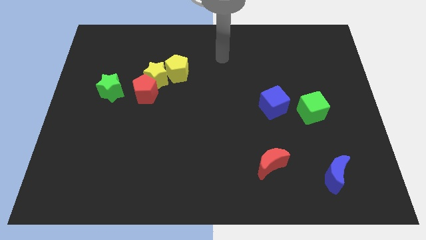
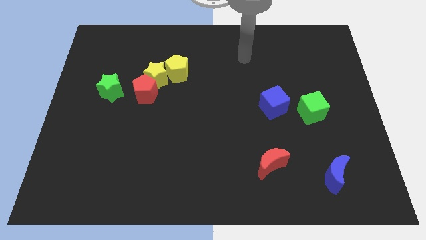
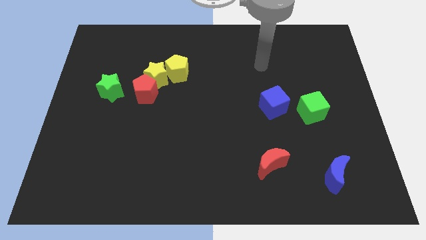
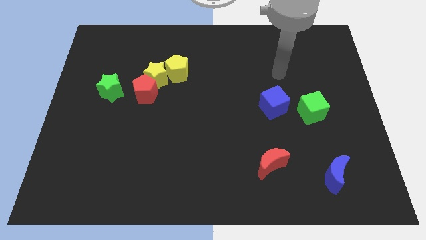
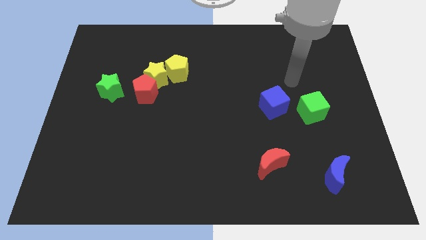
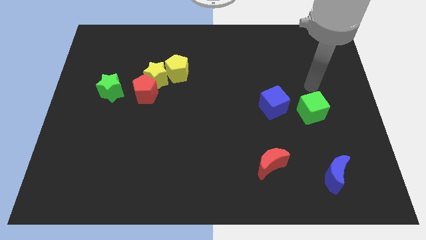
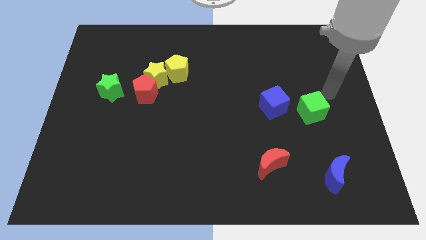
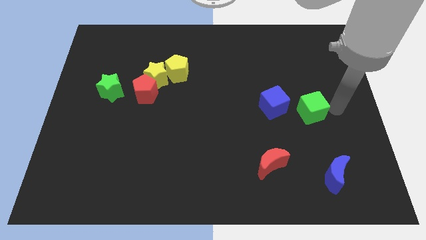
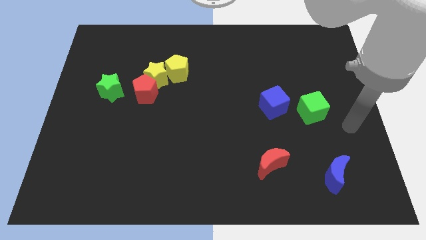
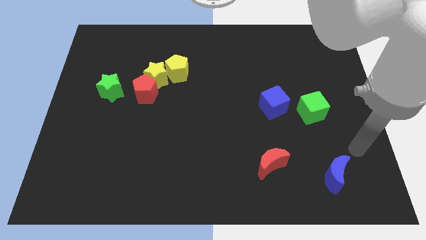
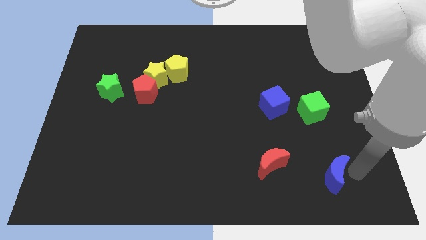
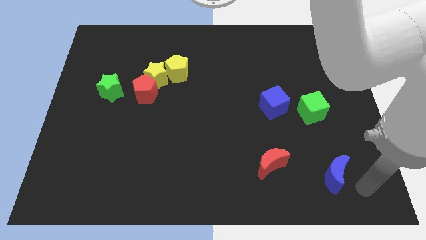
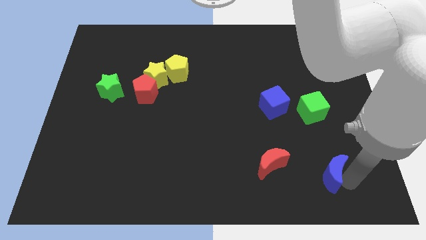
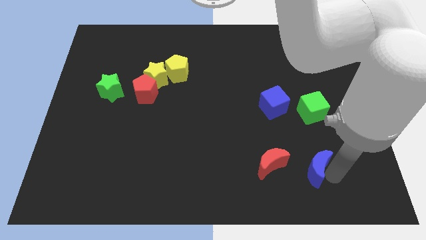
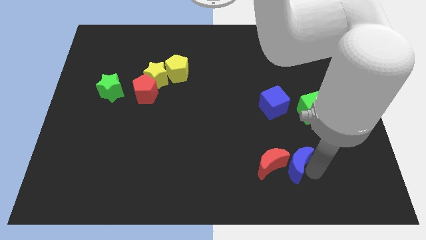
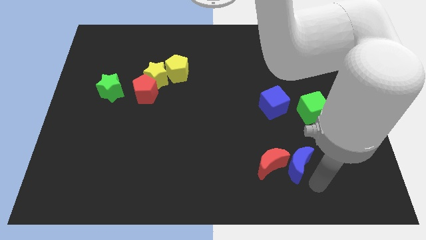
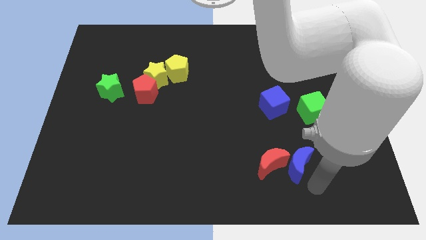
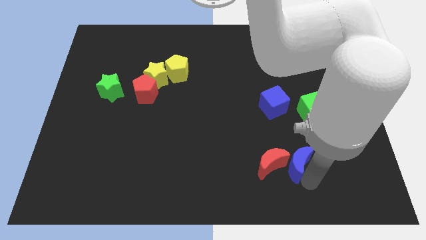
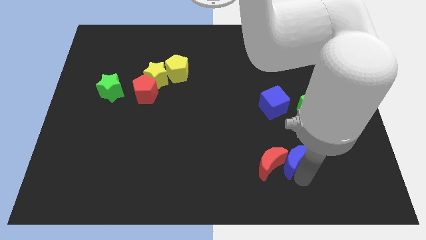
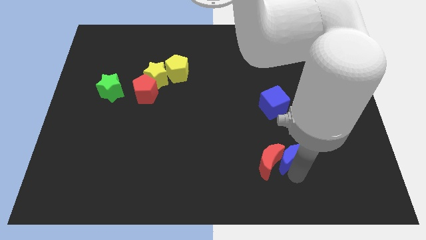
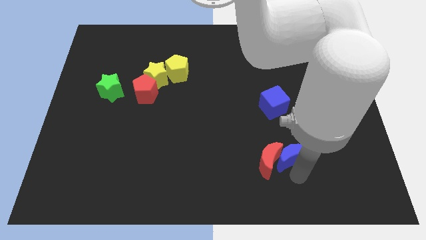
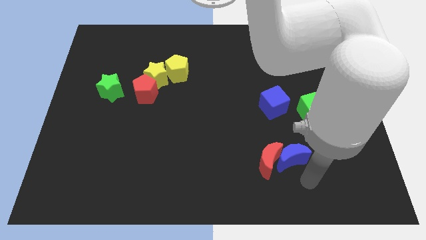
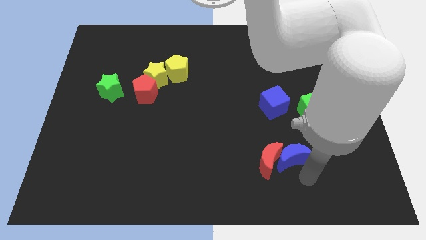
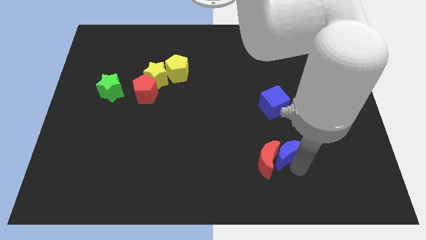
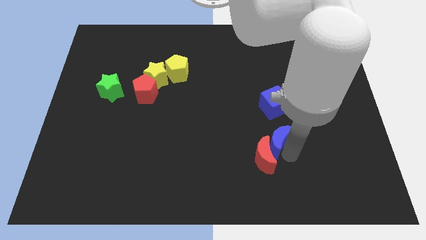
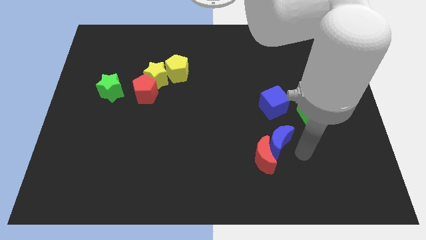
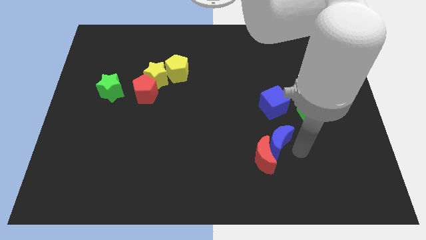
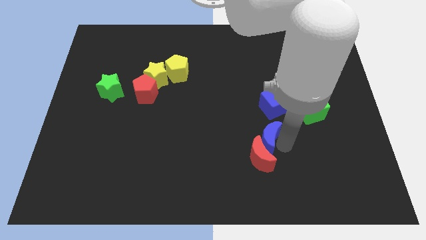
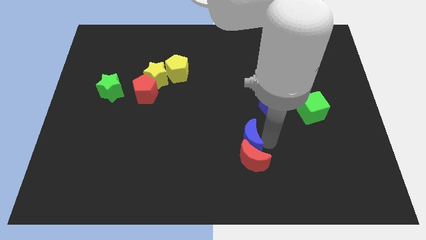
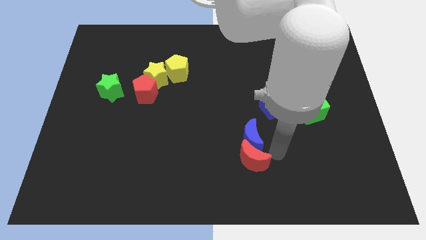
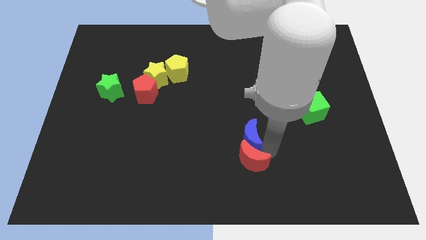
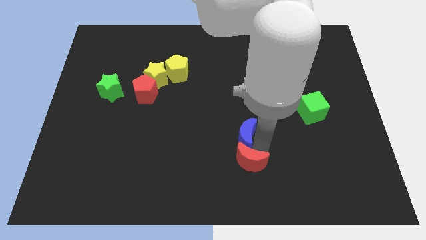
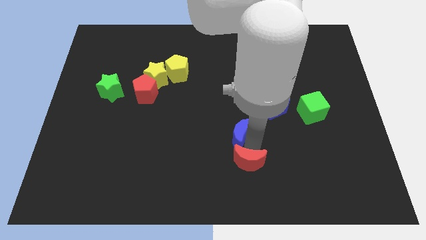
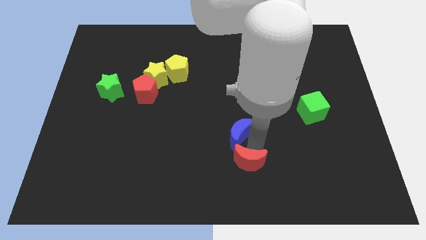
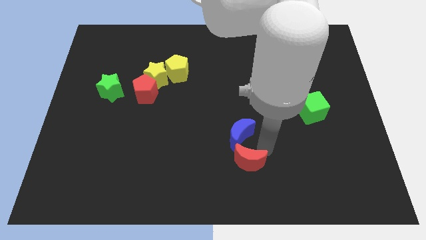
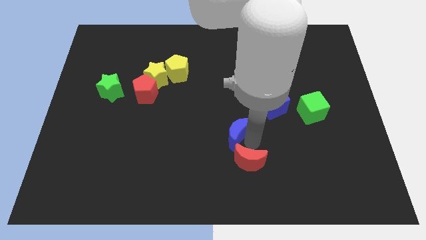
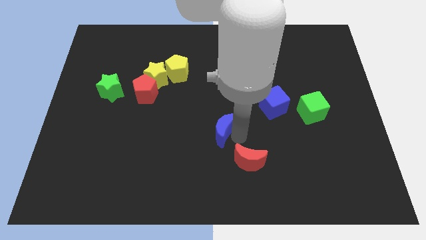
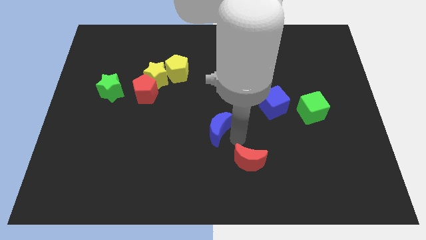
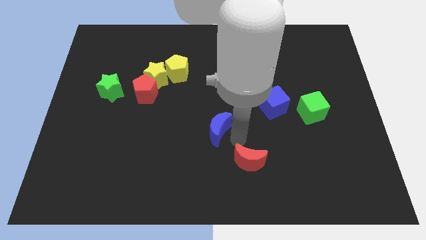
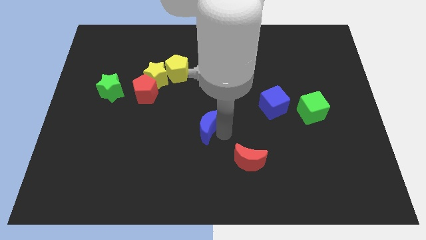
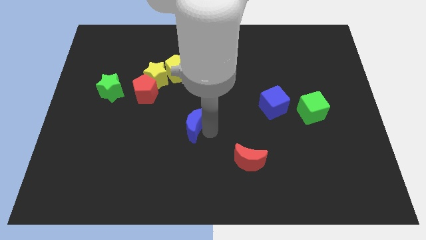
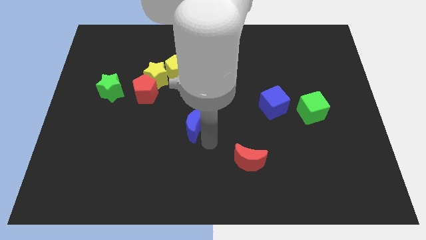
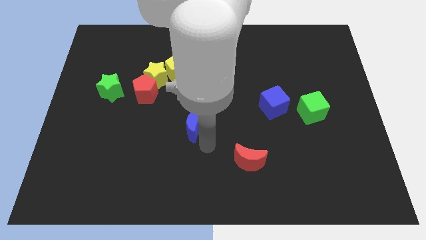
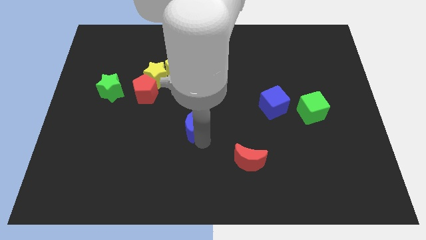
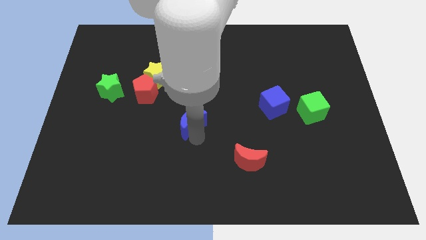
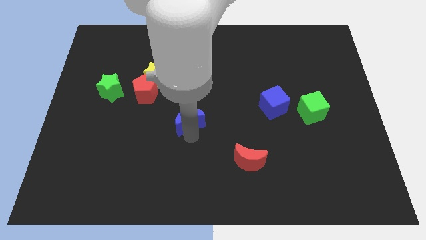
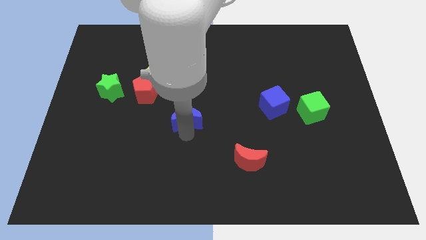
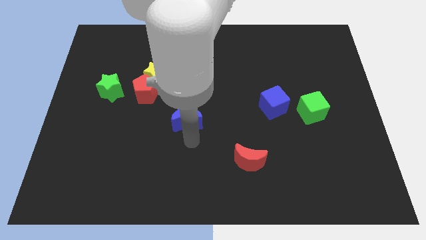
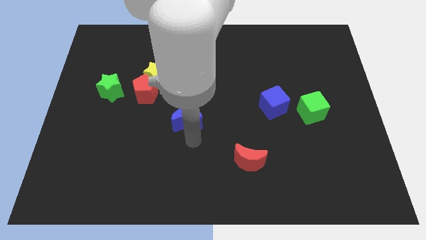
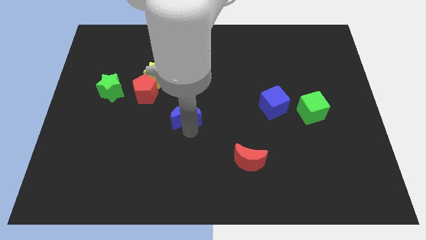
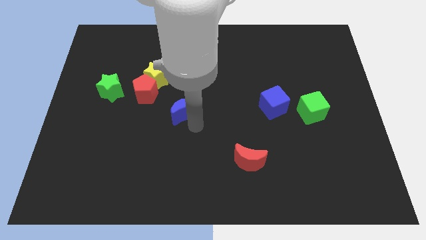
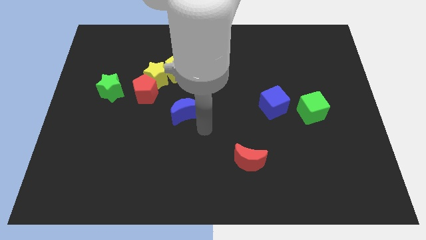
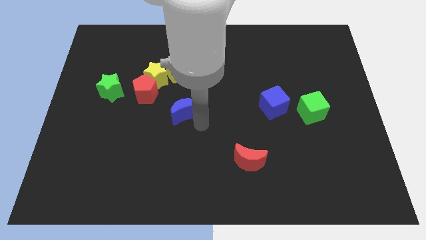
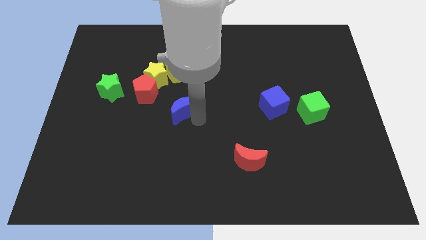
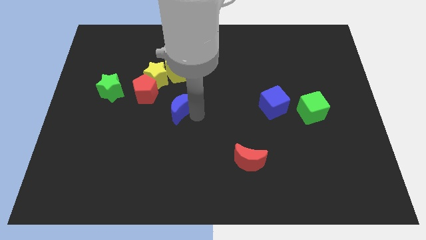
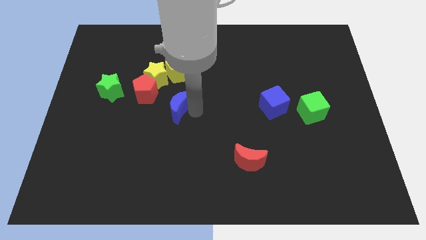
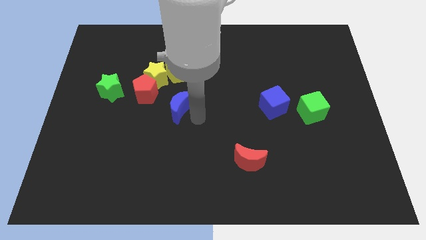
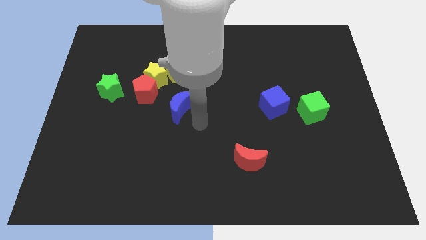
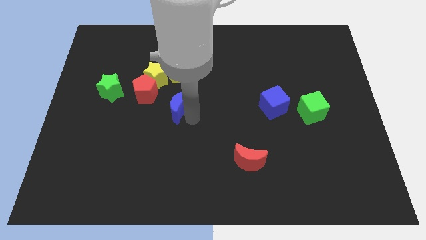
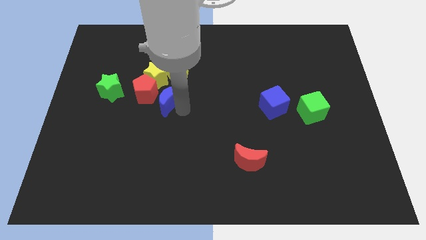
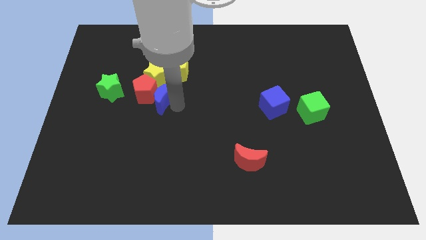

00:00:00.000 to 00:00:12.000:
move the blue moon next to the red pentagon

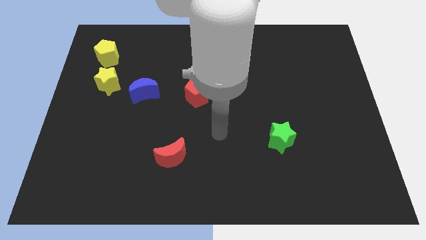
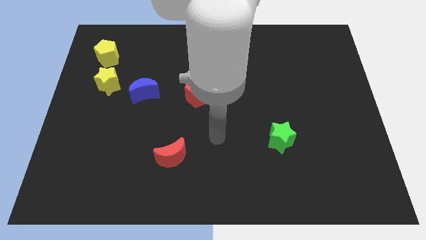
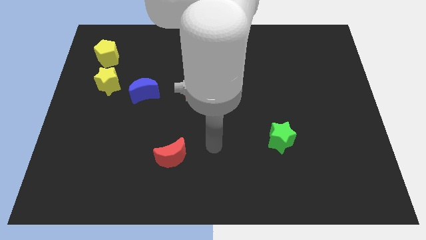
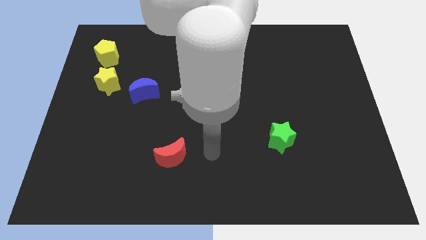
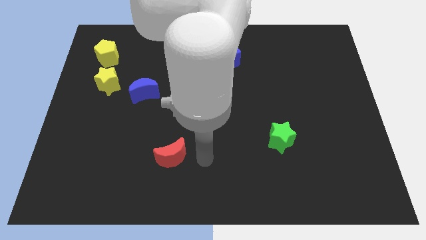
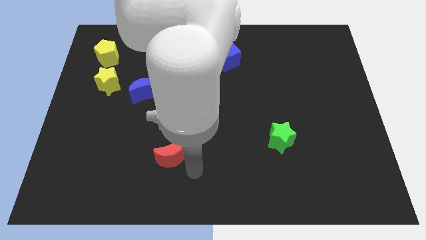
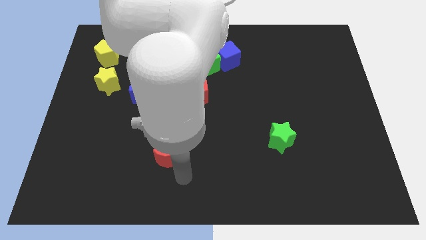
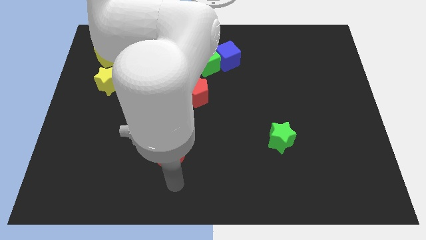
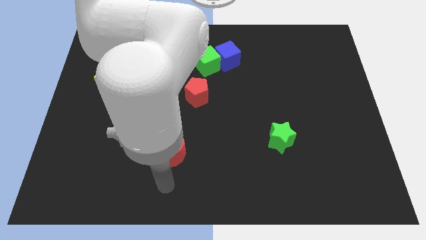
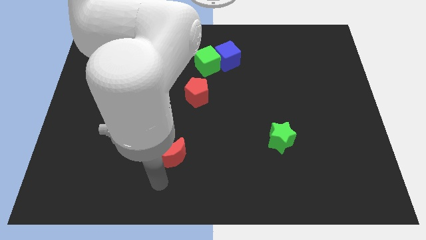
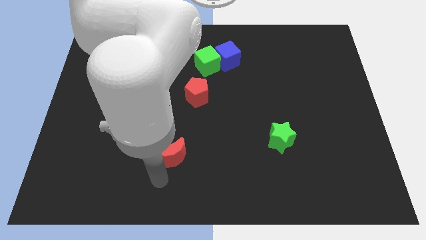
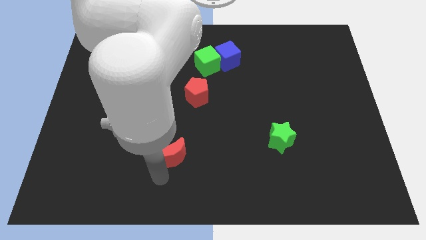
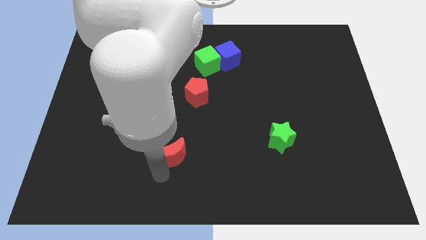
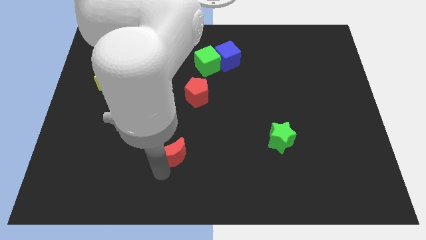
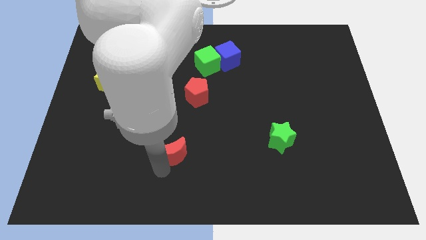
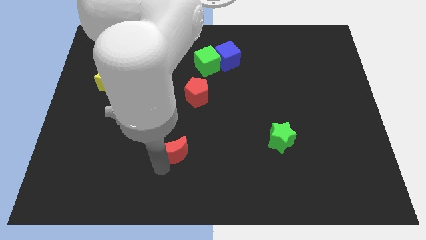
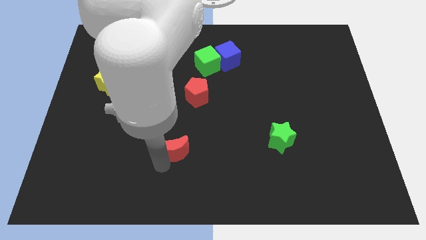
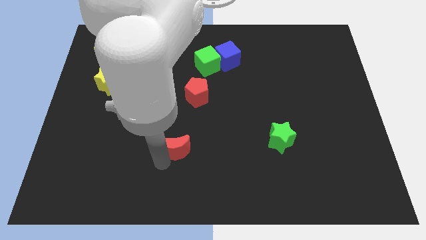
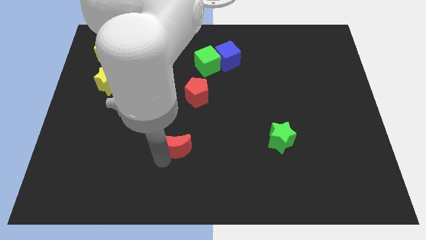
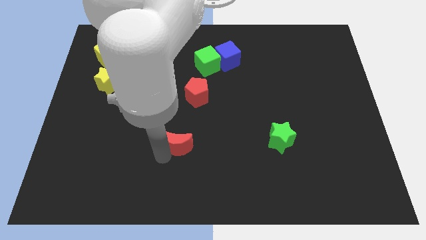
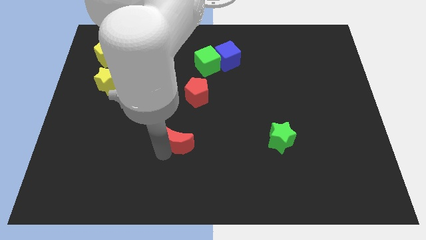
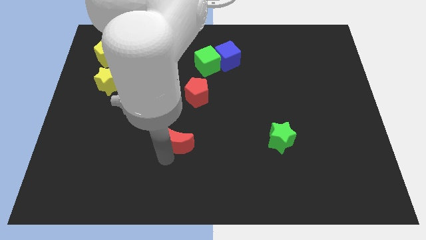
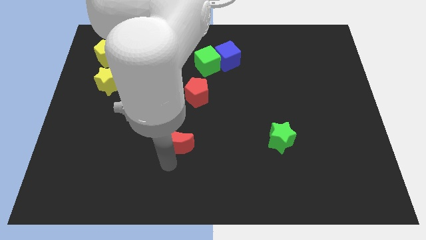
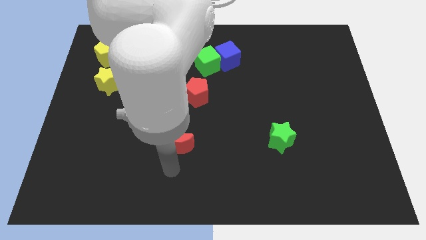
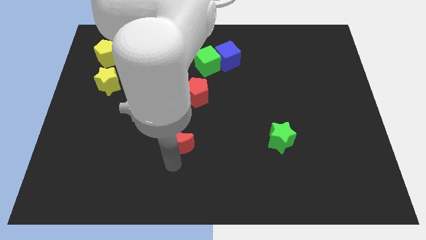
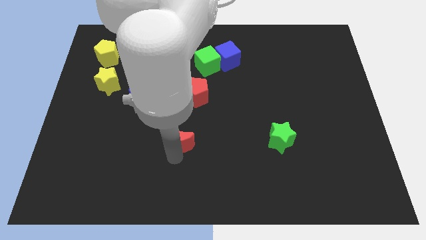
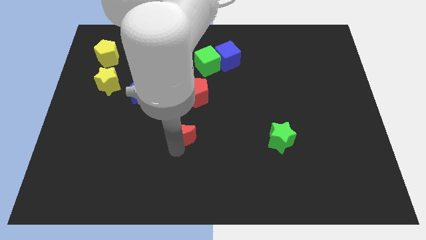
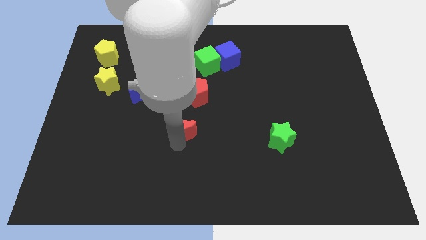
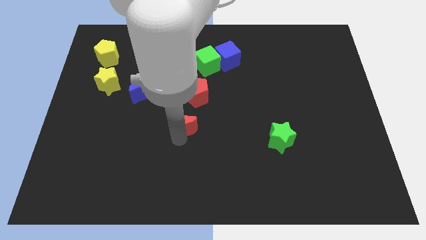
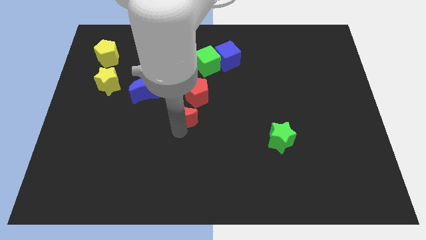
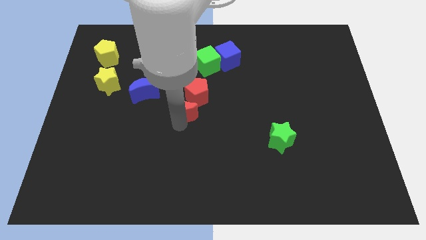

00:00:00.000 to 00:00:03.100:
move the red moon close to the red pentagon
